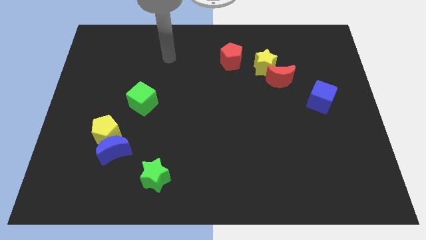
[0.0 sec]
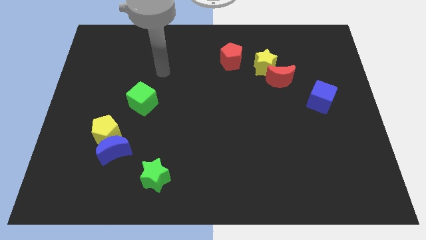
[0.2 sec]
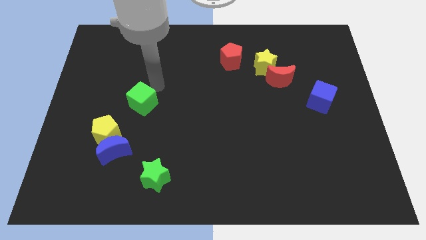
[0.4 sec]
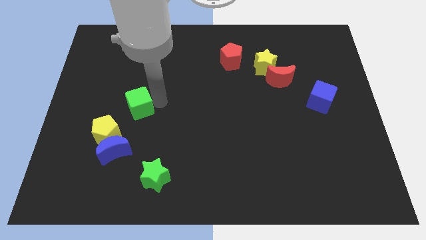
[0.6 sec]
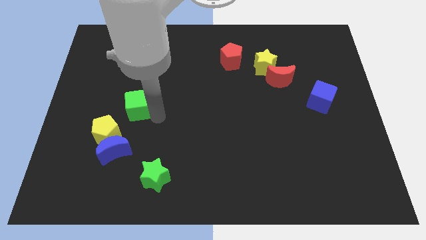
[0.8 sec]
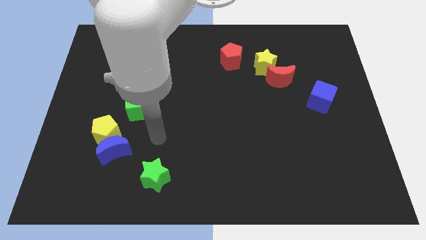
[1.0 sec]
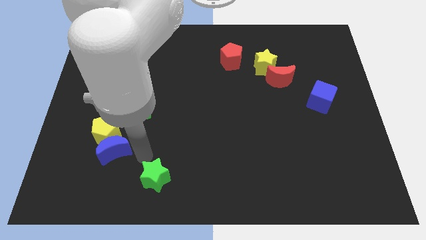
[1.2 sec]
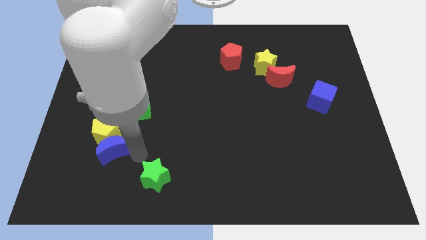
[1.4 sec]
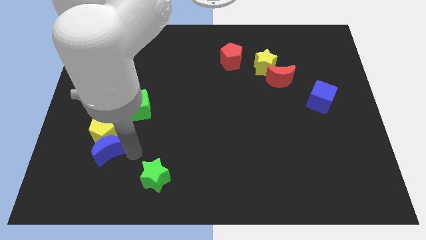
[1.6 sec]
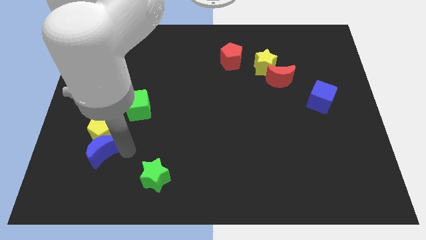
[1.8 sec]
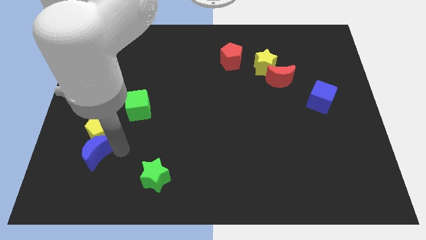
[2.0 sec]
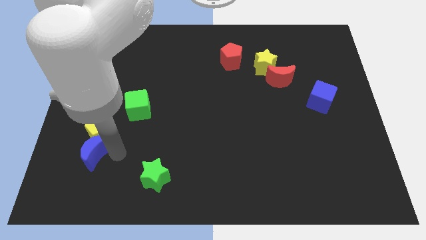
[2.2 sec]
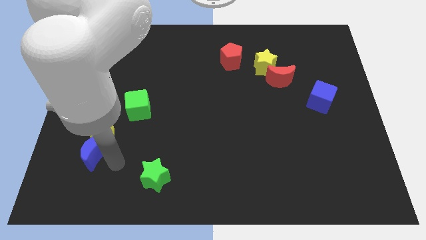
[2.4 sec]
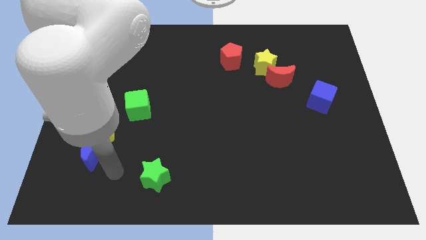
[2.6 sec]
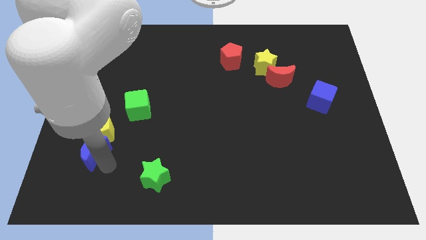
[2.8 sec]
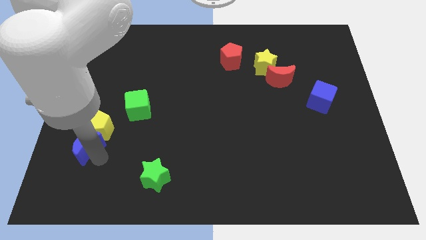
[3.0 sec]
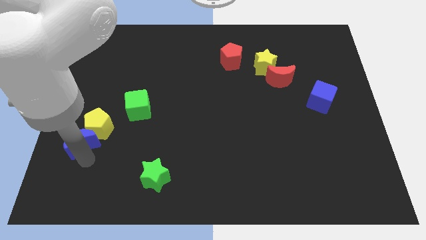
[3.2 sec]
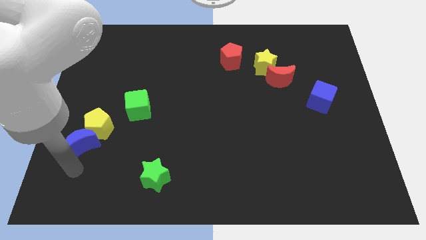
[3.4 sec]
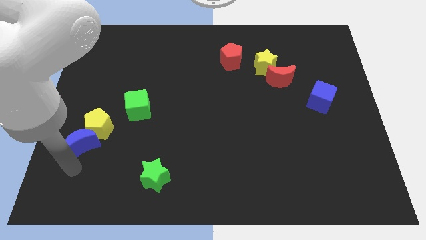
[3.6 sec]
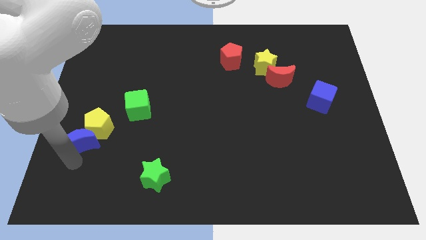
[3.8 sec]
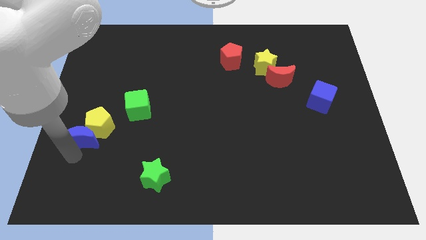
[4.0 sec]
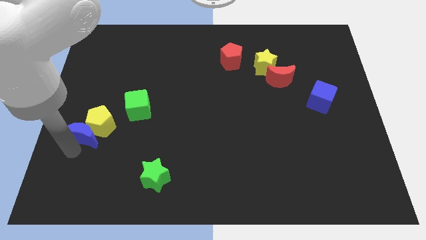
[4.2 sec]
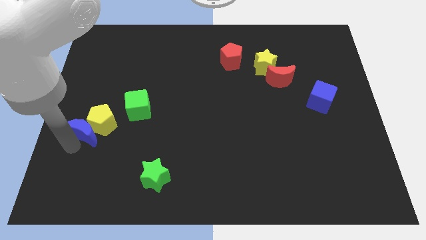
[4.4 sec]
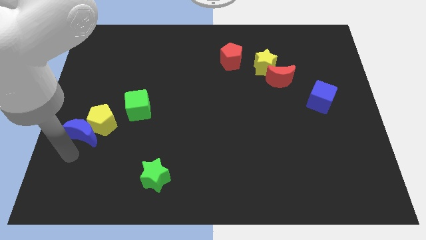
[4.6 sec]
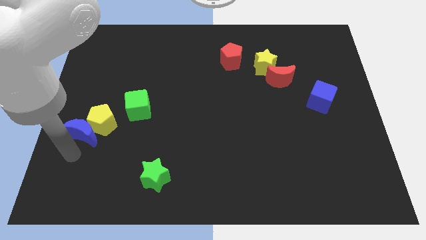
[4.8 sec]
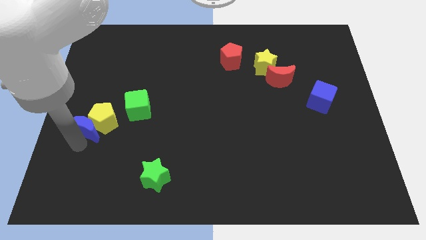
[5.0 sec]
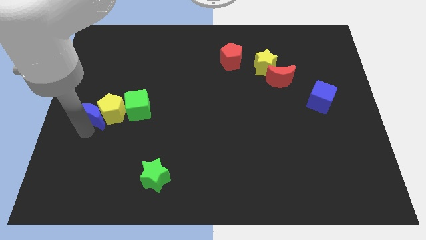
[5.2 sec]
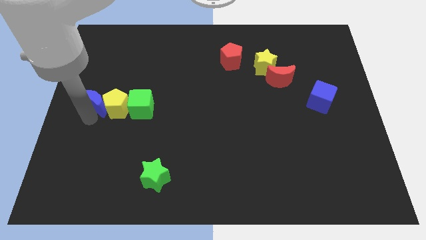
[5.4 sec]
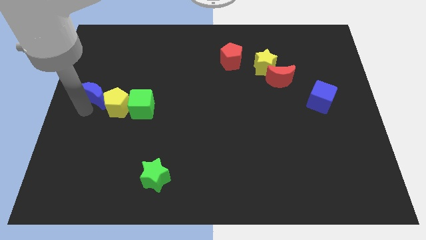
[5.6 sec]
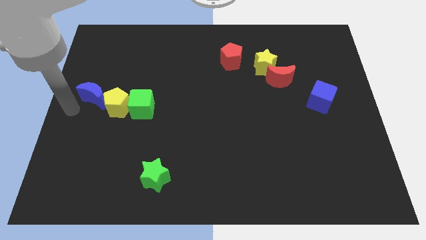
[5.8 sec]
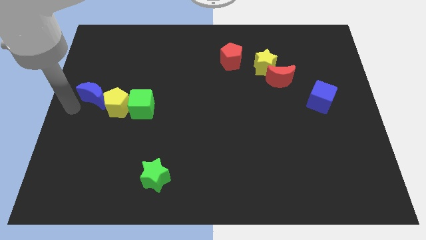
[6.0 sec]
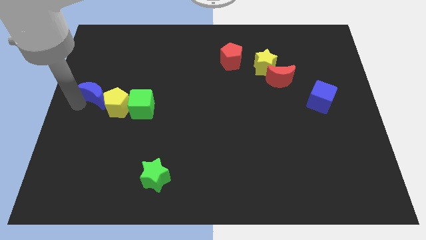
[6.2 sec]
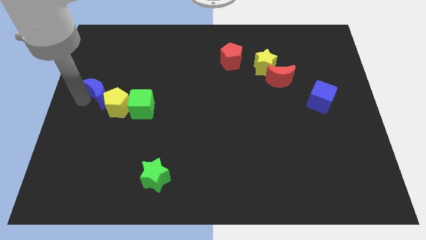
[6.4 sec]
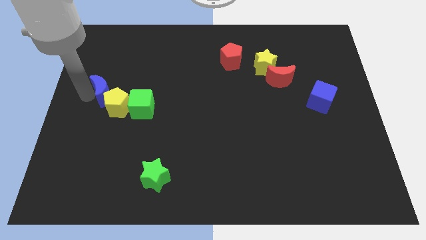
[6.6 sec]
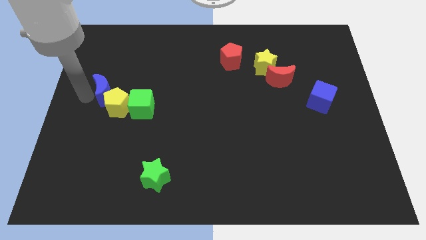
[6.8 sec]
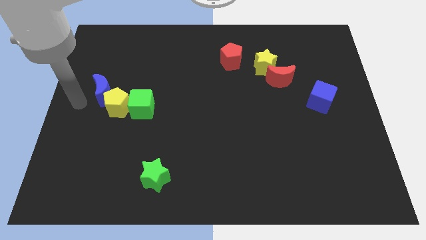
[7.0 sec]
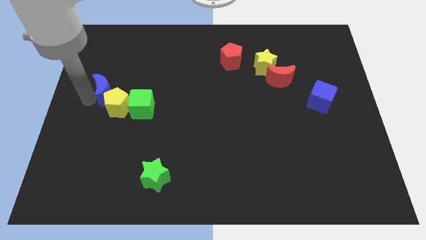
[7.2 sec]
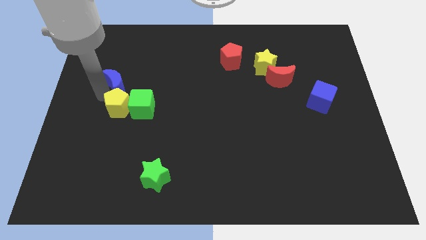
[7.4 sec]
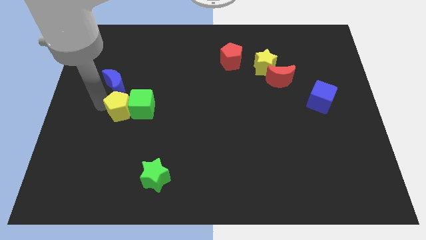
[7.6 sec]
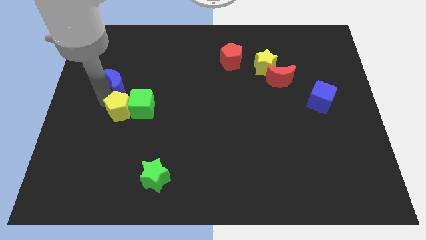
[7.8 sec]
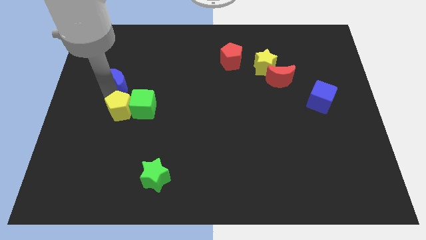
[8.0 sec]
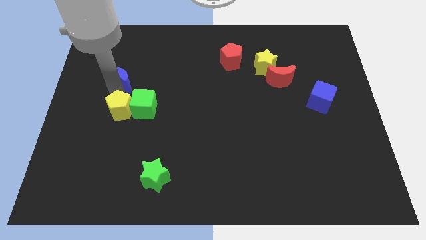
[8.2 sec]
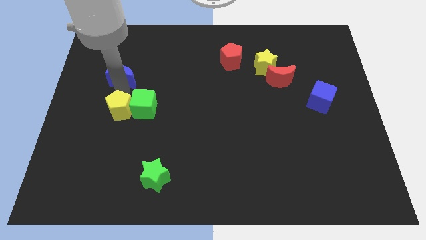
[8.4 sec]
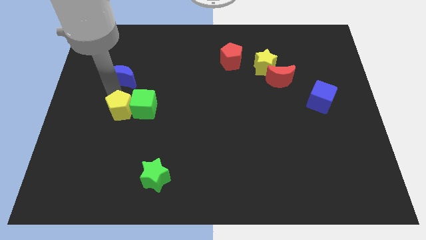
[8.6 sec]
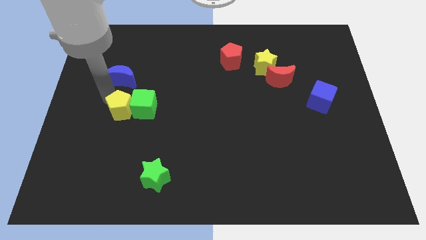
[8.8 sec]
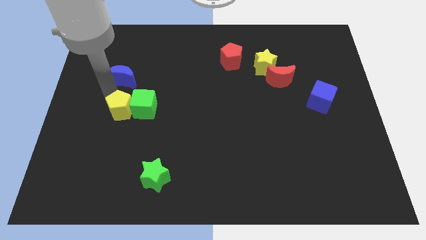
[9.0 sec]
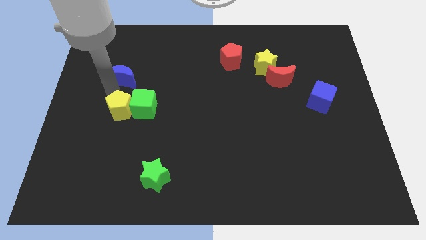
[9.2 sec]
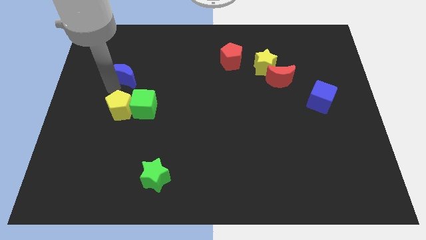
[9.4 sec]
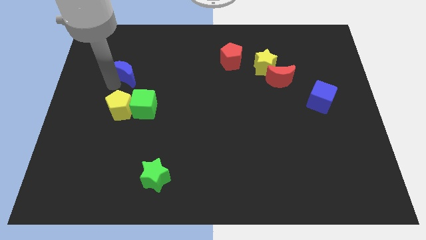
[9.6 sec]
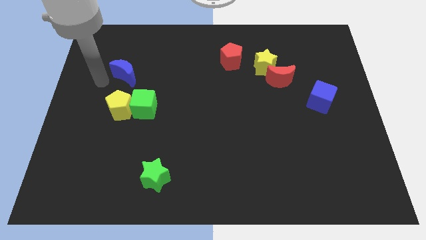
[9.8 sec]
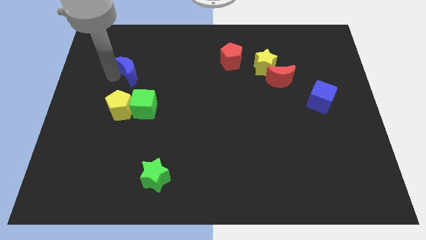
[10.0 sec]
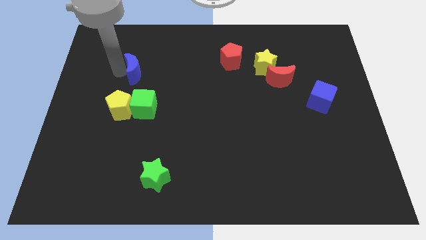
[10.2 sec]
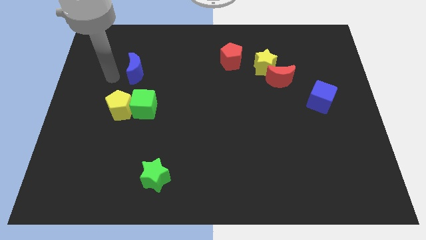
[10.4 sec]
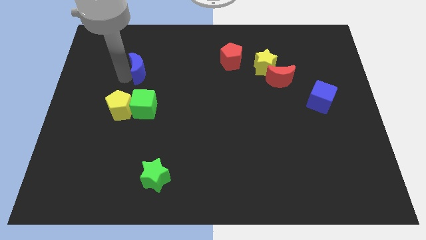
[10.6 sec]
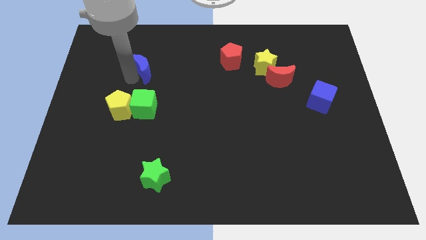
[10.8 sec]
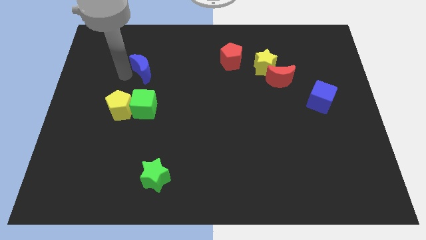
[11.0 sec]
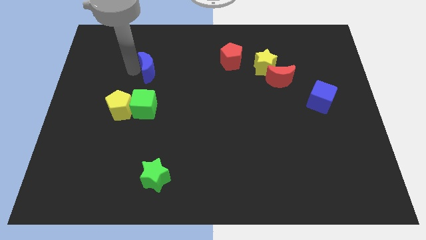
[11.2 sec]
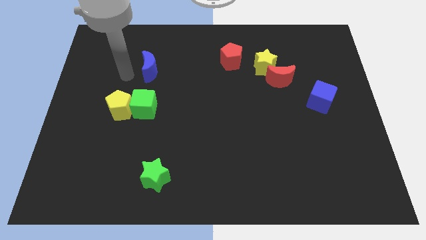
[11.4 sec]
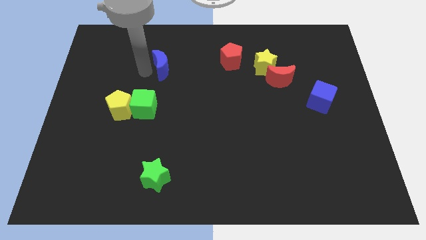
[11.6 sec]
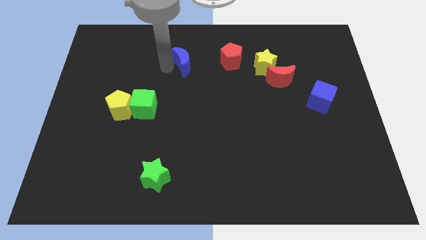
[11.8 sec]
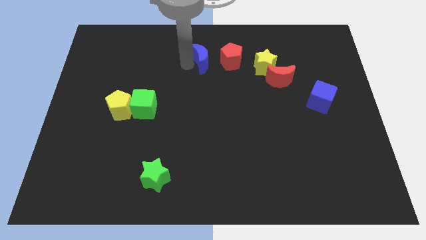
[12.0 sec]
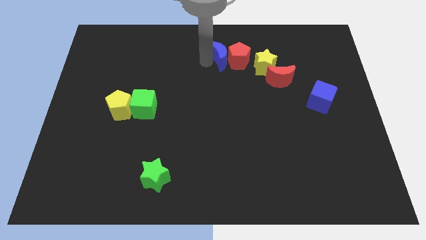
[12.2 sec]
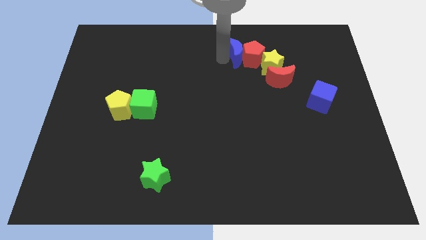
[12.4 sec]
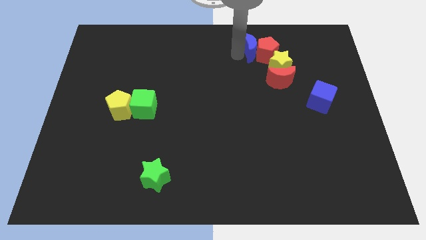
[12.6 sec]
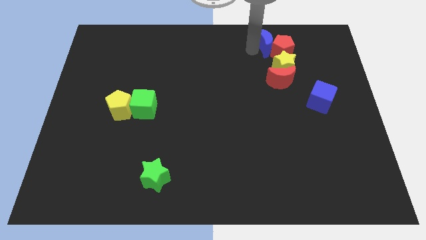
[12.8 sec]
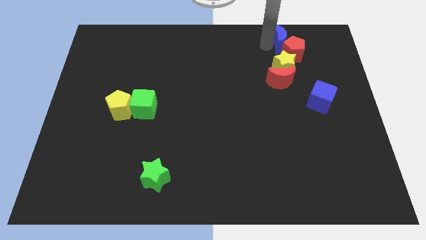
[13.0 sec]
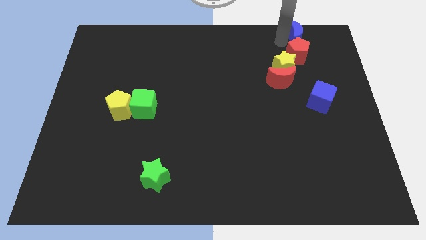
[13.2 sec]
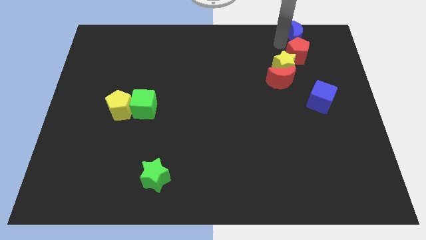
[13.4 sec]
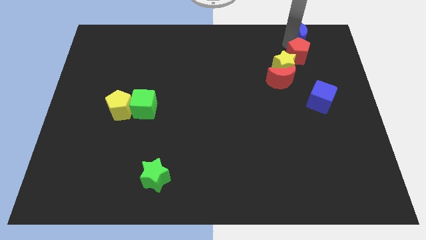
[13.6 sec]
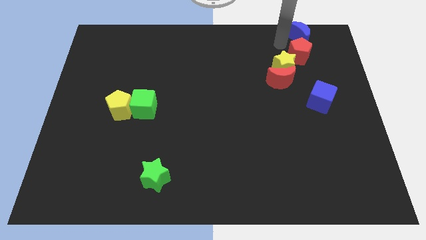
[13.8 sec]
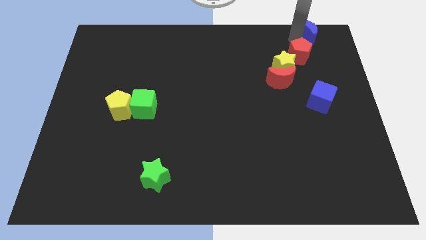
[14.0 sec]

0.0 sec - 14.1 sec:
push the blue moon to the top right of the board
